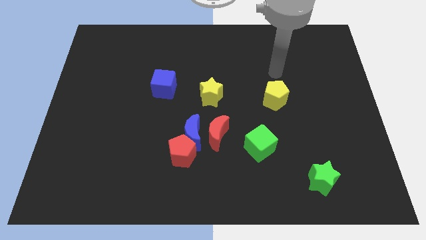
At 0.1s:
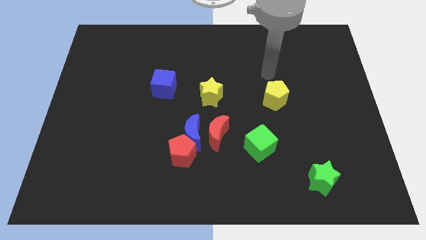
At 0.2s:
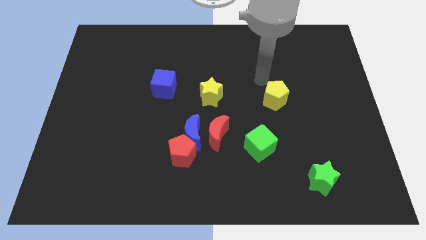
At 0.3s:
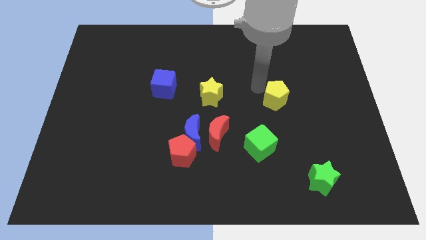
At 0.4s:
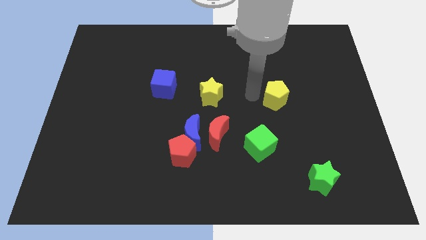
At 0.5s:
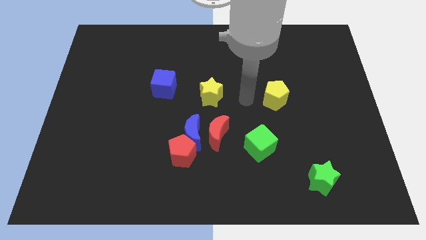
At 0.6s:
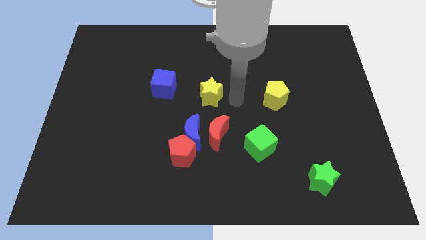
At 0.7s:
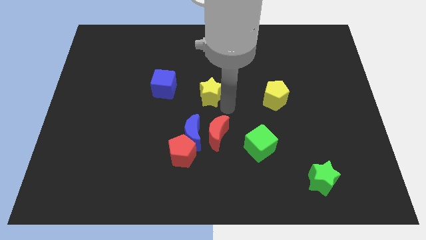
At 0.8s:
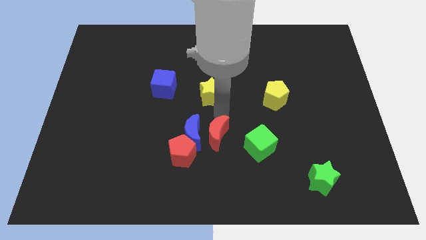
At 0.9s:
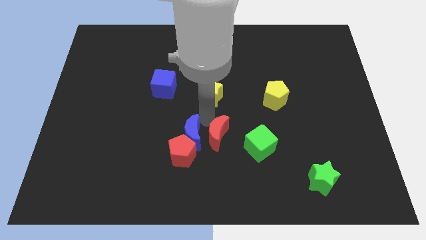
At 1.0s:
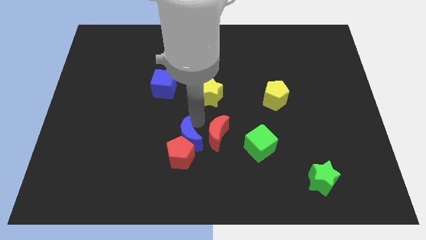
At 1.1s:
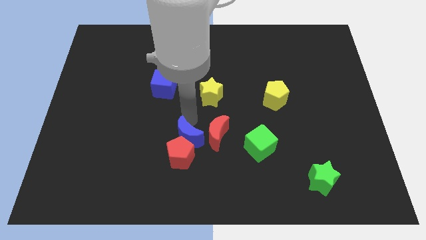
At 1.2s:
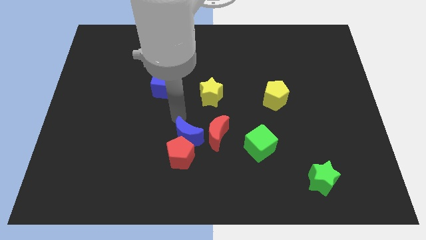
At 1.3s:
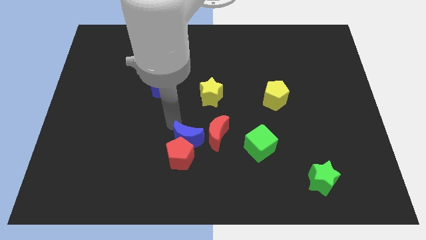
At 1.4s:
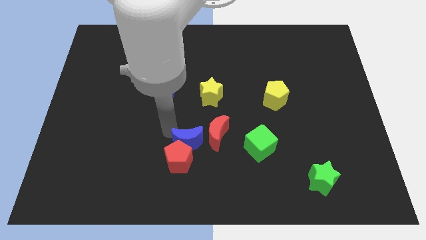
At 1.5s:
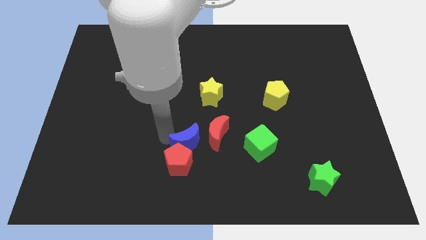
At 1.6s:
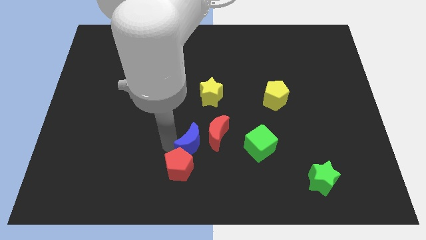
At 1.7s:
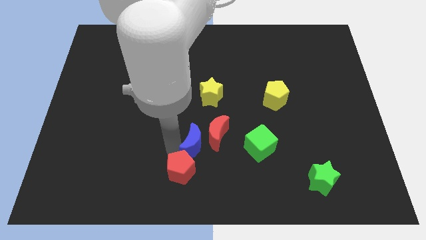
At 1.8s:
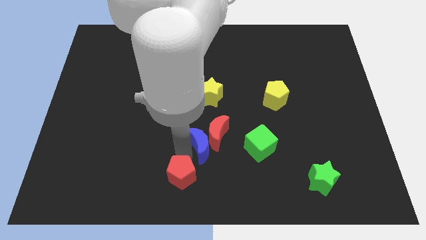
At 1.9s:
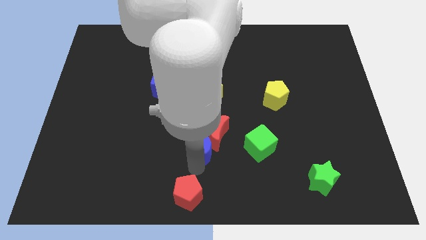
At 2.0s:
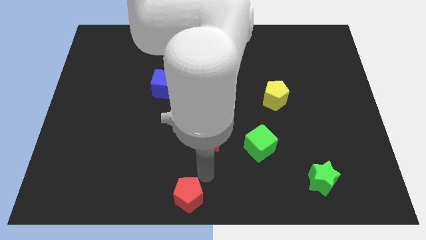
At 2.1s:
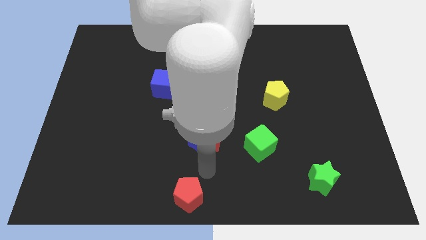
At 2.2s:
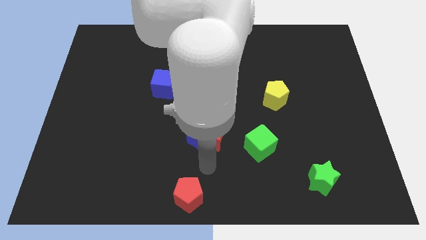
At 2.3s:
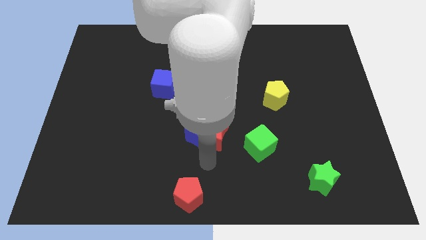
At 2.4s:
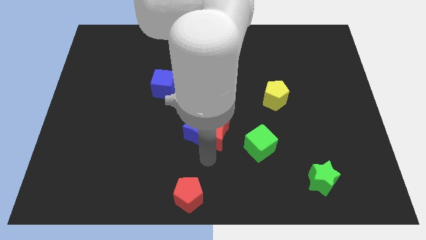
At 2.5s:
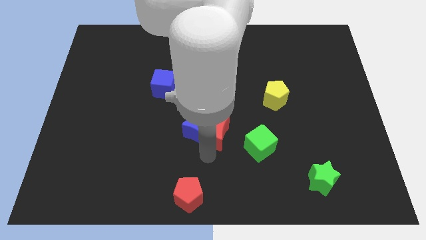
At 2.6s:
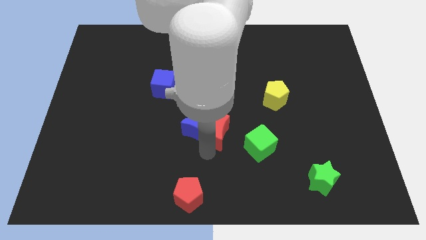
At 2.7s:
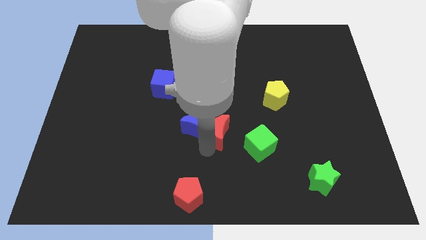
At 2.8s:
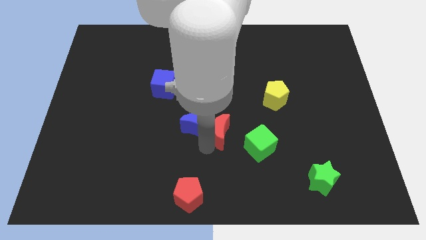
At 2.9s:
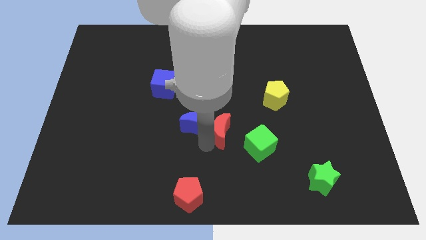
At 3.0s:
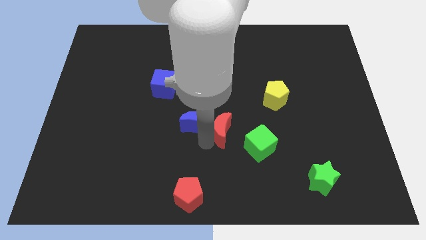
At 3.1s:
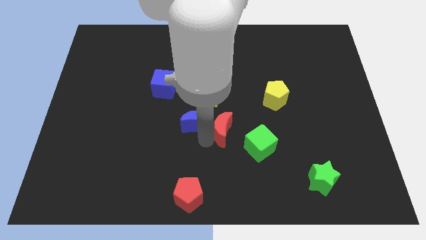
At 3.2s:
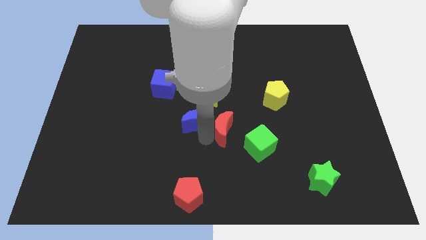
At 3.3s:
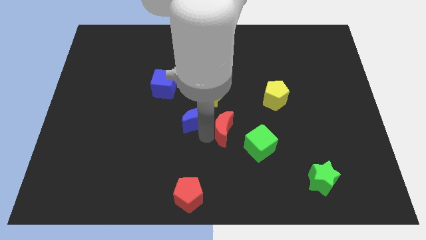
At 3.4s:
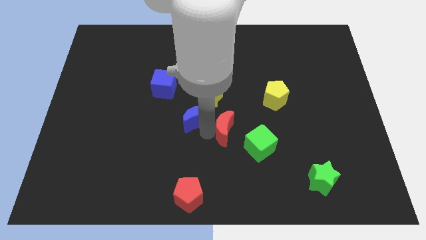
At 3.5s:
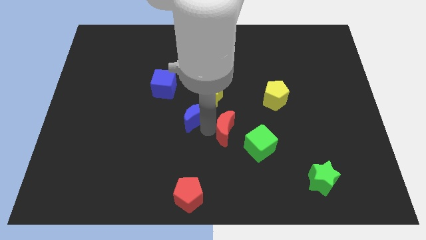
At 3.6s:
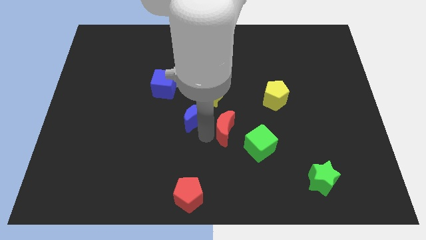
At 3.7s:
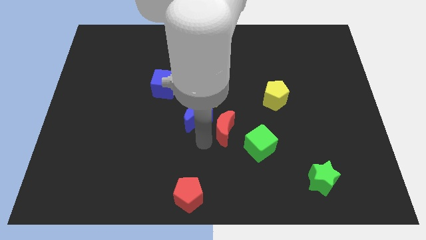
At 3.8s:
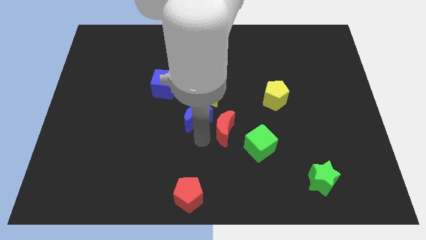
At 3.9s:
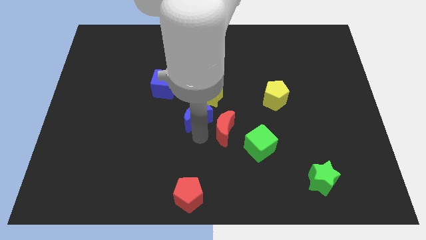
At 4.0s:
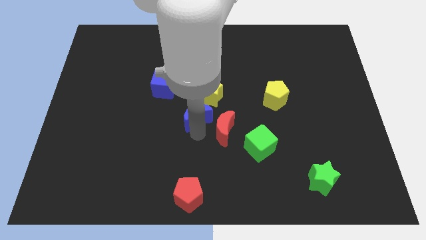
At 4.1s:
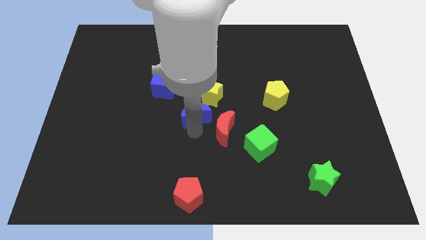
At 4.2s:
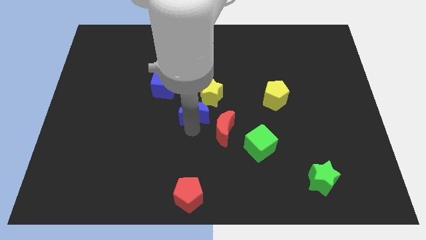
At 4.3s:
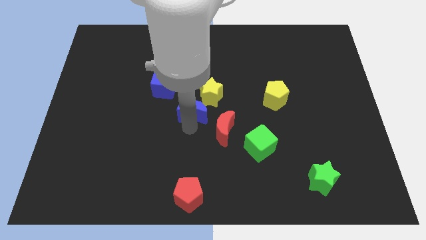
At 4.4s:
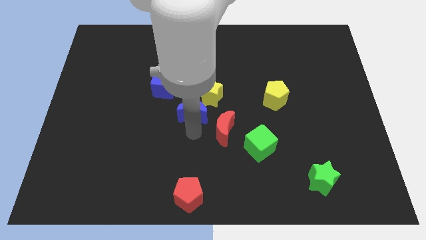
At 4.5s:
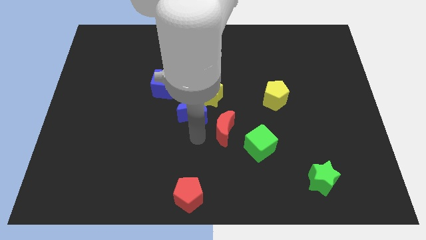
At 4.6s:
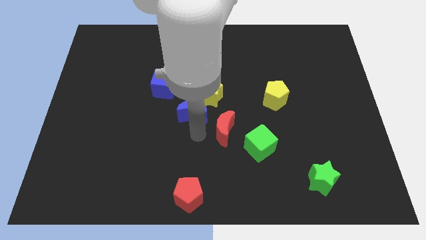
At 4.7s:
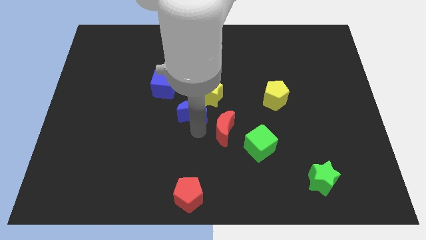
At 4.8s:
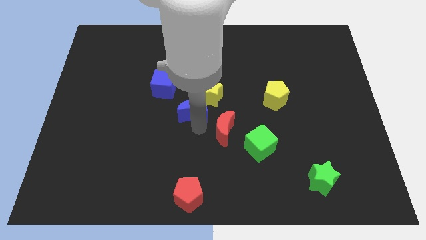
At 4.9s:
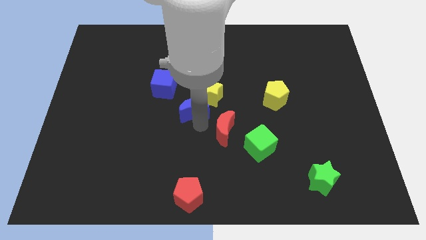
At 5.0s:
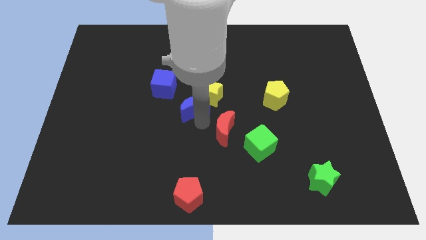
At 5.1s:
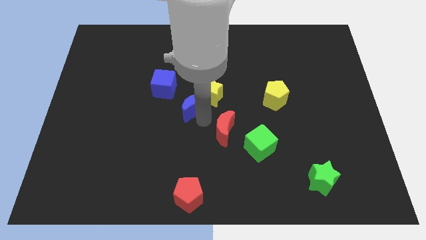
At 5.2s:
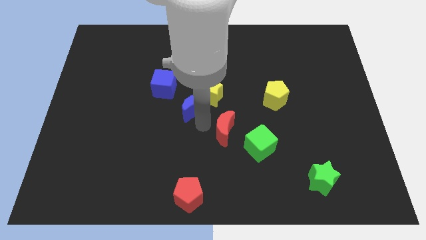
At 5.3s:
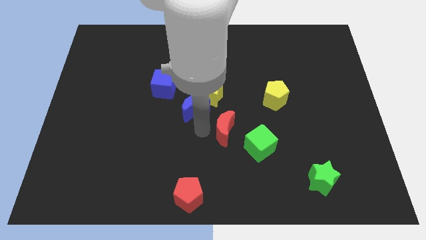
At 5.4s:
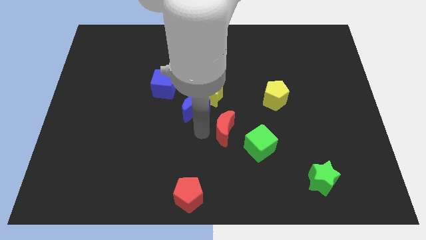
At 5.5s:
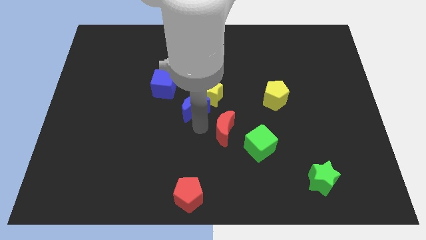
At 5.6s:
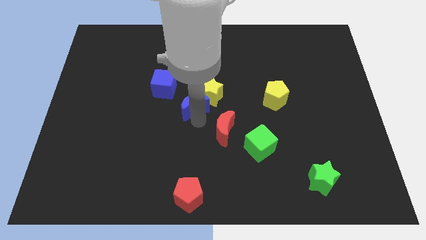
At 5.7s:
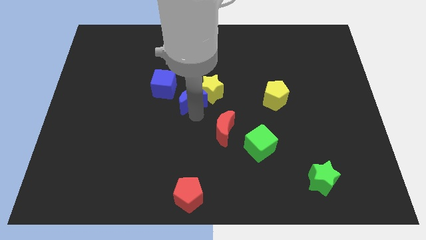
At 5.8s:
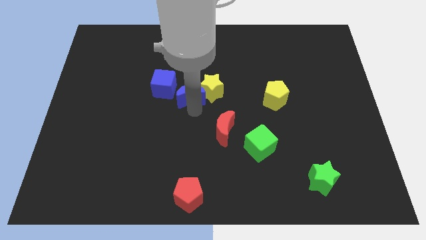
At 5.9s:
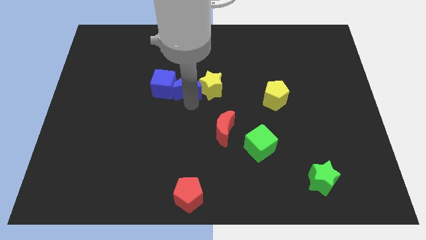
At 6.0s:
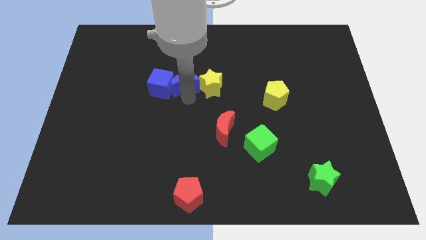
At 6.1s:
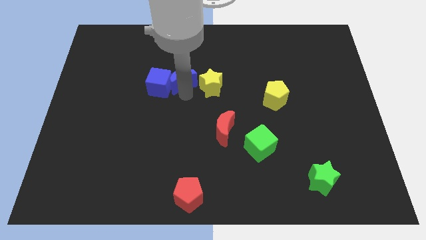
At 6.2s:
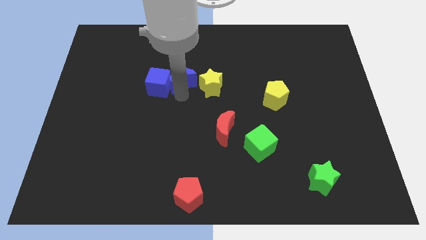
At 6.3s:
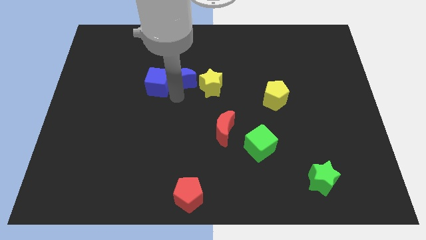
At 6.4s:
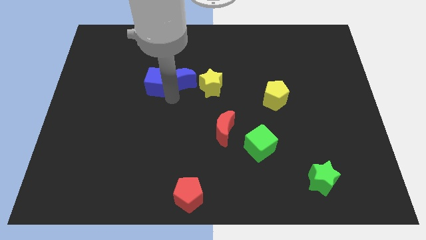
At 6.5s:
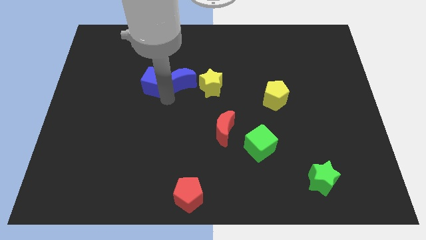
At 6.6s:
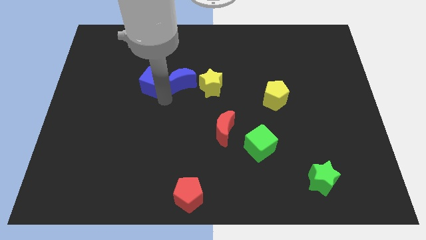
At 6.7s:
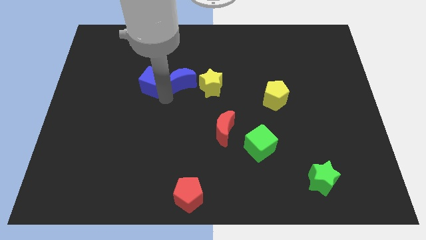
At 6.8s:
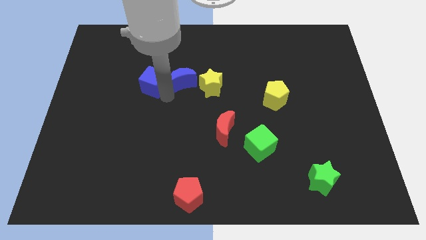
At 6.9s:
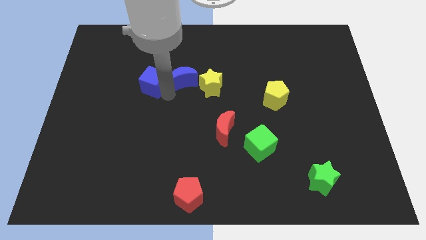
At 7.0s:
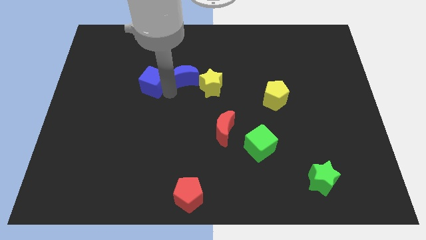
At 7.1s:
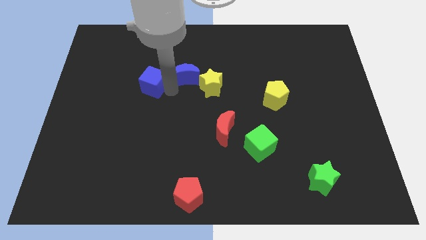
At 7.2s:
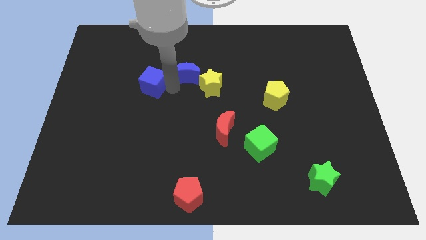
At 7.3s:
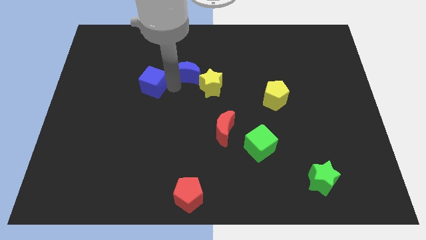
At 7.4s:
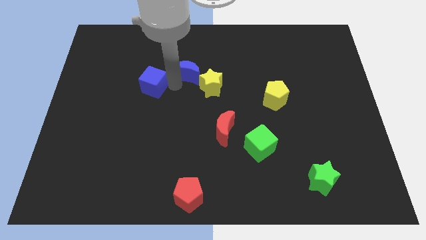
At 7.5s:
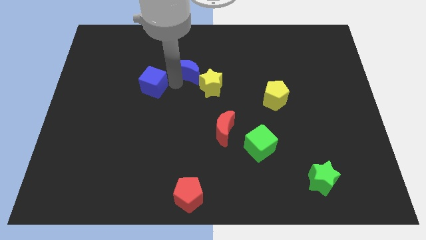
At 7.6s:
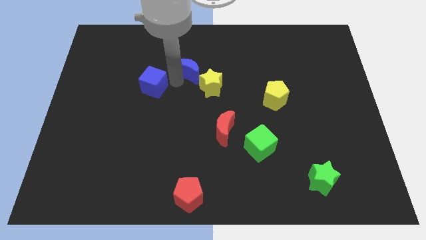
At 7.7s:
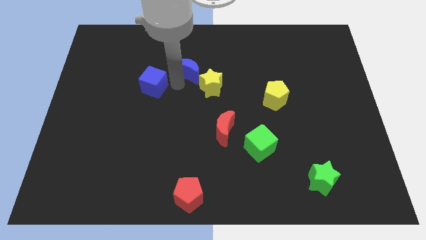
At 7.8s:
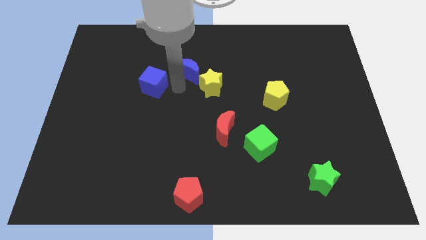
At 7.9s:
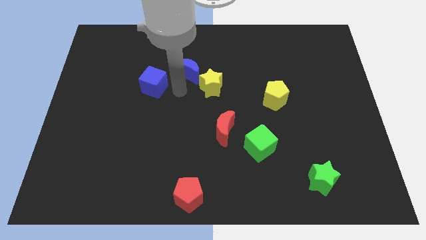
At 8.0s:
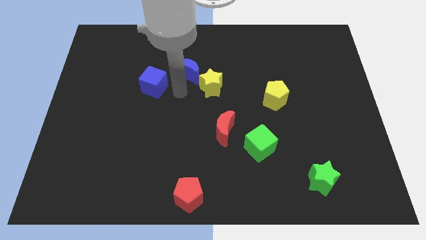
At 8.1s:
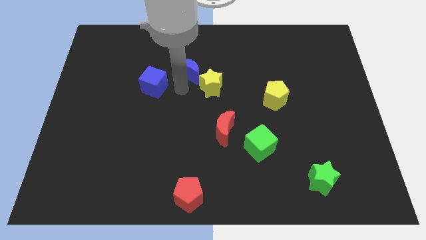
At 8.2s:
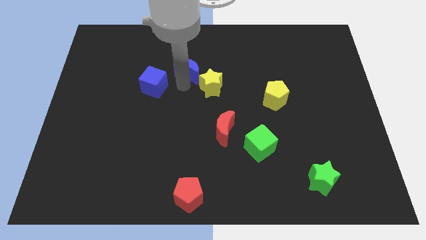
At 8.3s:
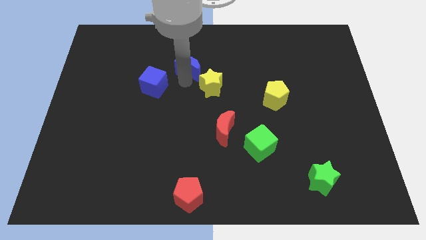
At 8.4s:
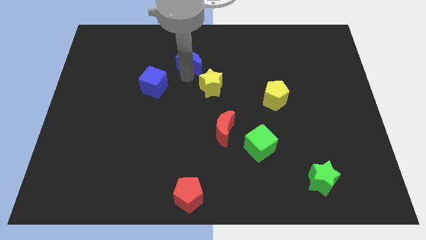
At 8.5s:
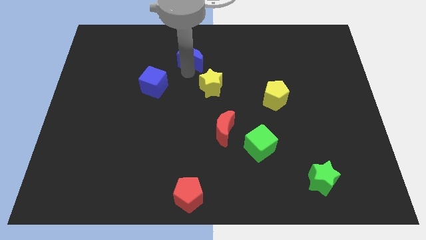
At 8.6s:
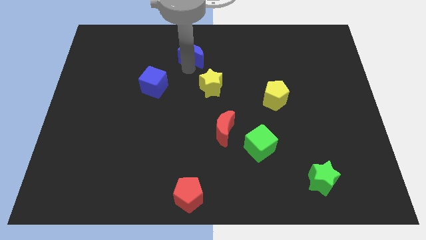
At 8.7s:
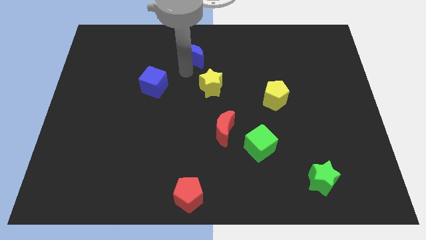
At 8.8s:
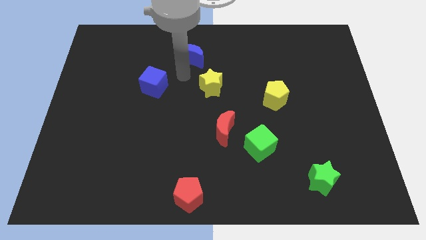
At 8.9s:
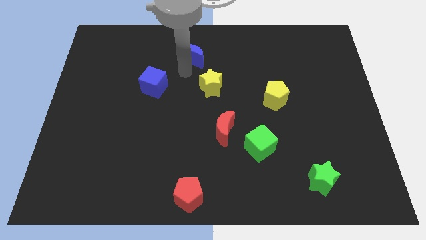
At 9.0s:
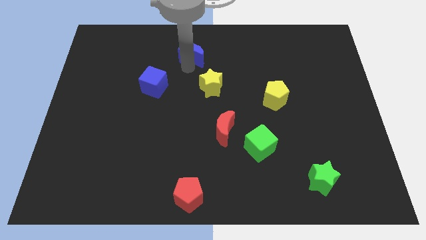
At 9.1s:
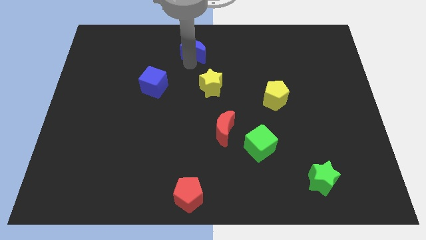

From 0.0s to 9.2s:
slide the blue moon to the top
